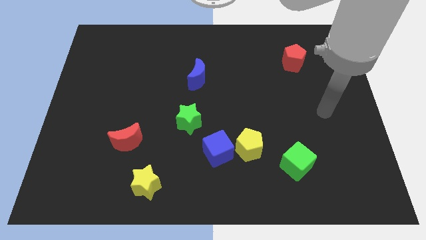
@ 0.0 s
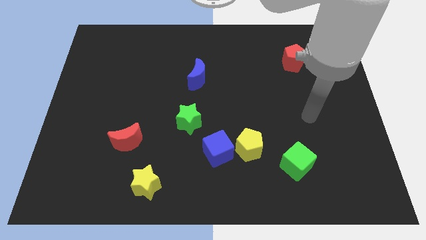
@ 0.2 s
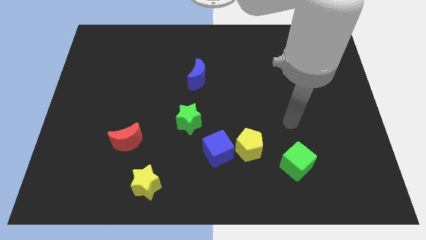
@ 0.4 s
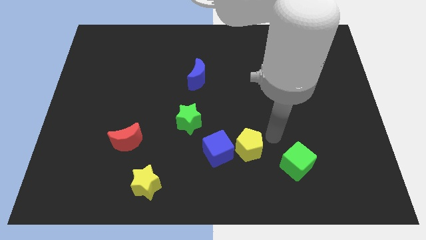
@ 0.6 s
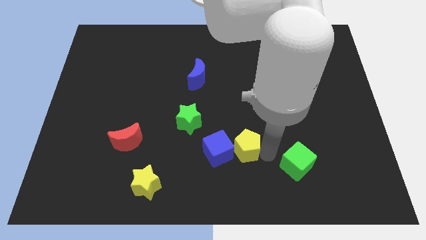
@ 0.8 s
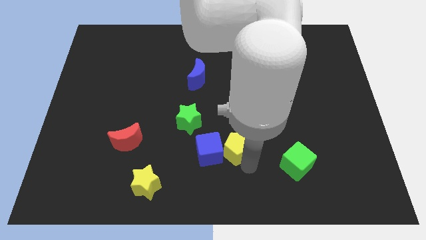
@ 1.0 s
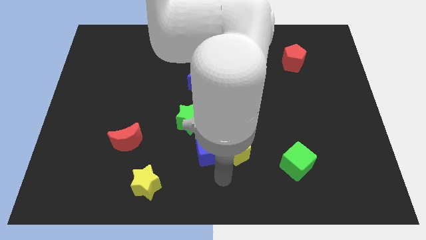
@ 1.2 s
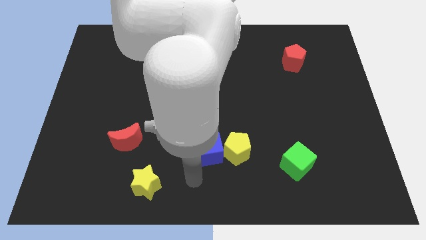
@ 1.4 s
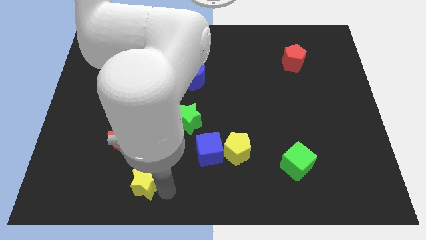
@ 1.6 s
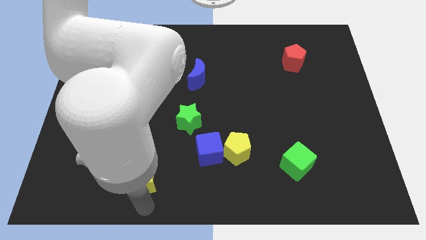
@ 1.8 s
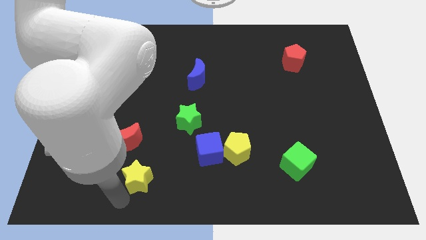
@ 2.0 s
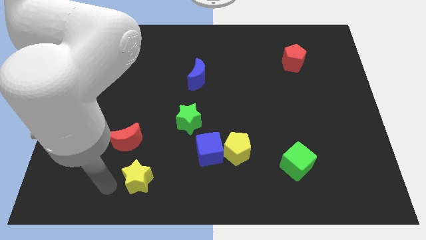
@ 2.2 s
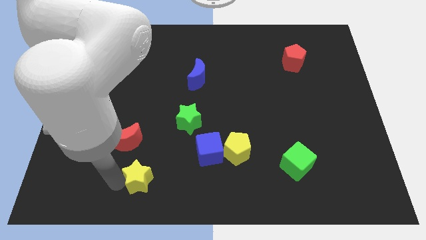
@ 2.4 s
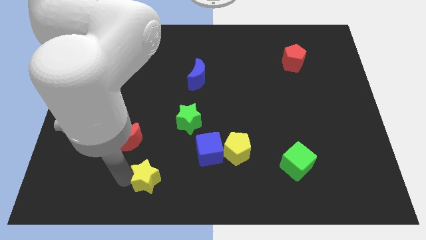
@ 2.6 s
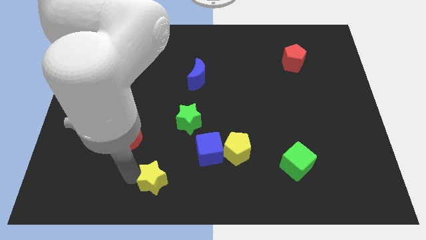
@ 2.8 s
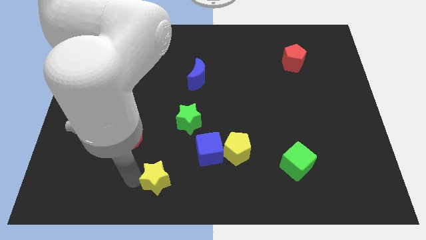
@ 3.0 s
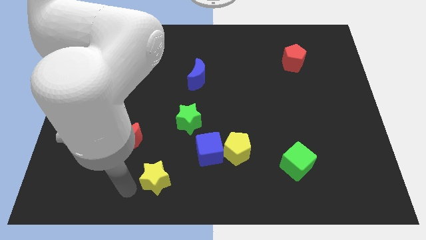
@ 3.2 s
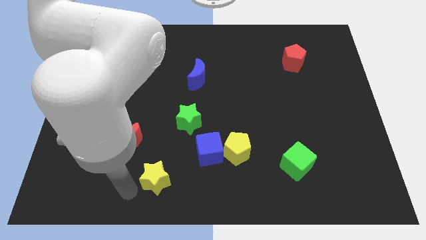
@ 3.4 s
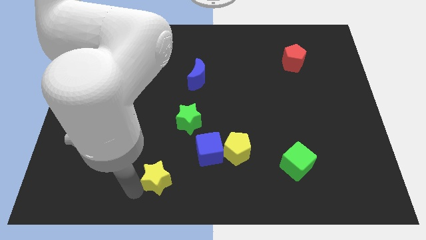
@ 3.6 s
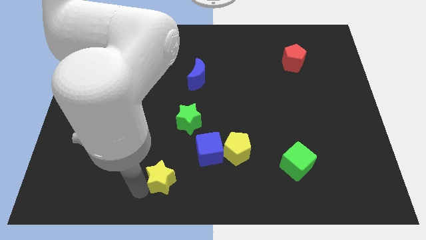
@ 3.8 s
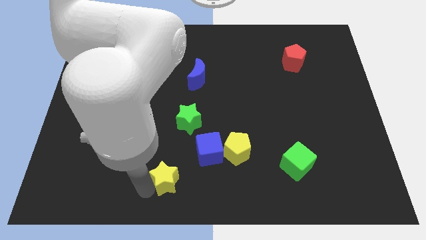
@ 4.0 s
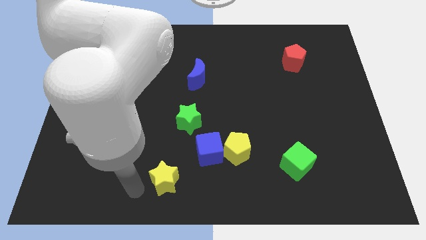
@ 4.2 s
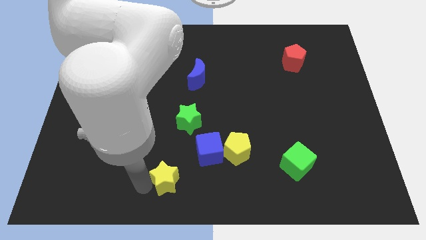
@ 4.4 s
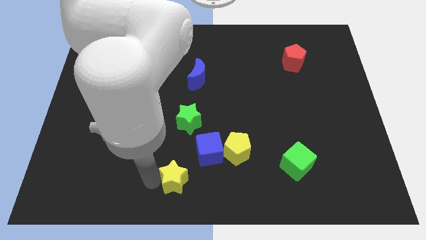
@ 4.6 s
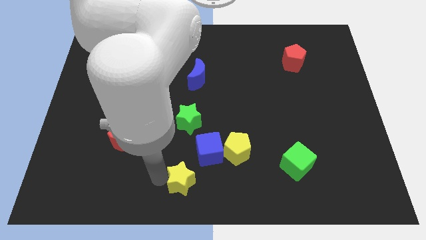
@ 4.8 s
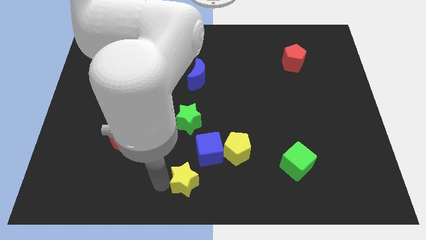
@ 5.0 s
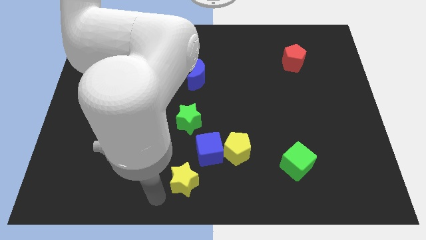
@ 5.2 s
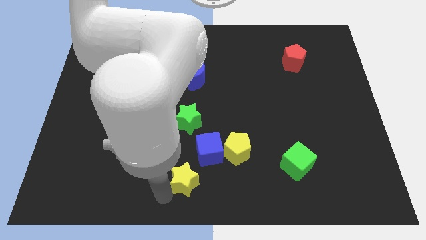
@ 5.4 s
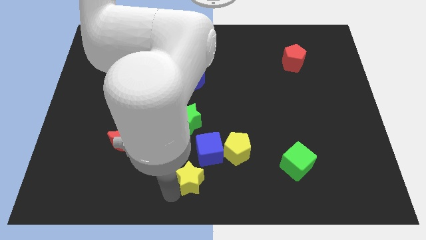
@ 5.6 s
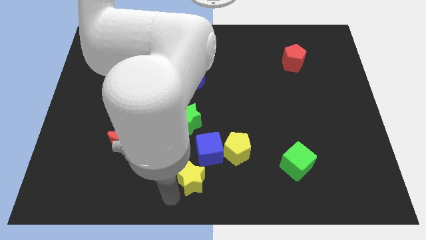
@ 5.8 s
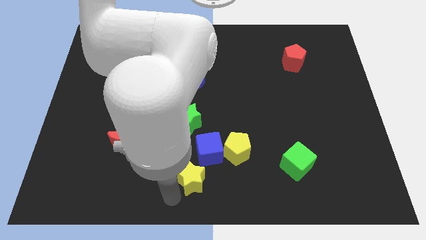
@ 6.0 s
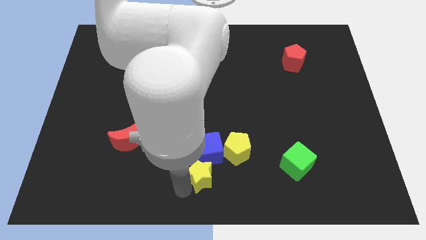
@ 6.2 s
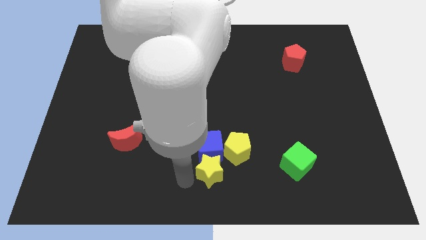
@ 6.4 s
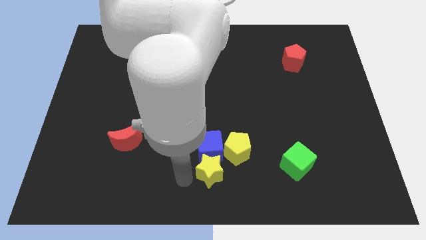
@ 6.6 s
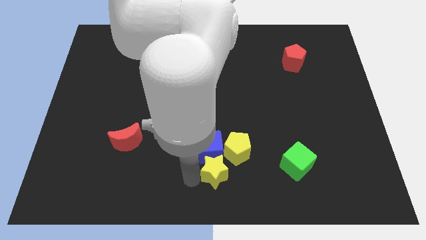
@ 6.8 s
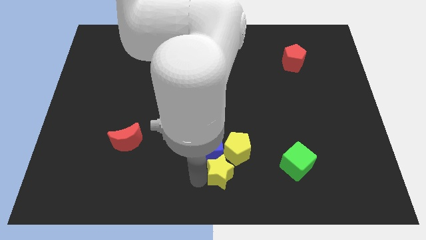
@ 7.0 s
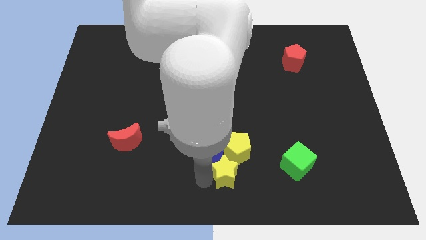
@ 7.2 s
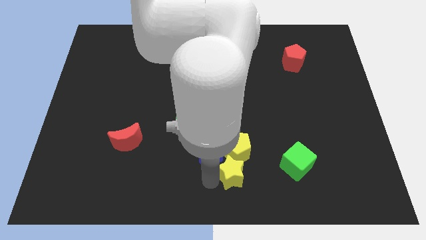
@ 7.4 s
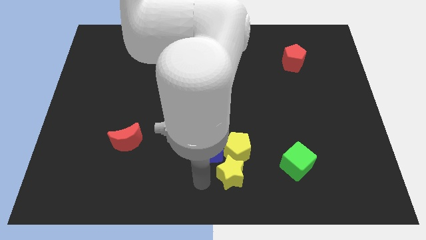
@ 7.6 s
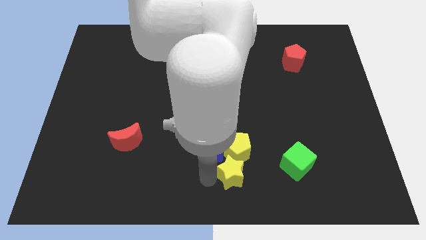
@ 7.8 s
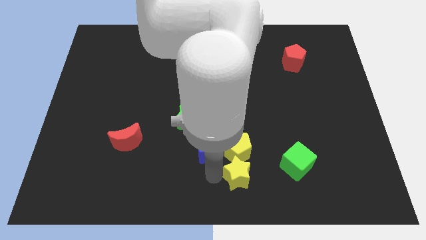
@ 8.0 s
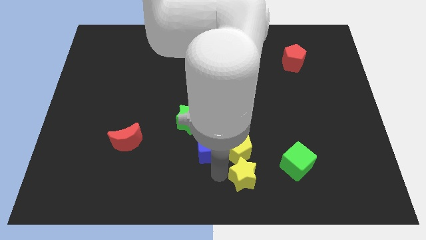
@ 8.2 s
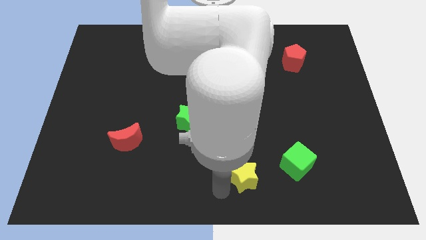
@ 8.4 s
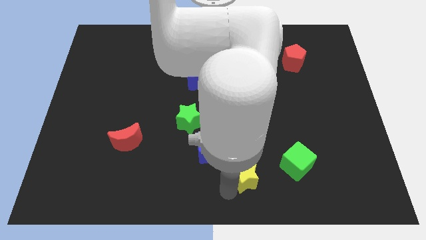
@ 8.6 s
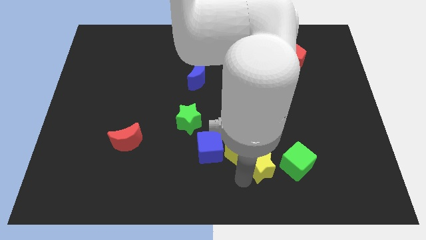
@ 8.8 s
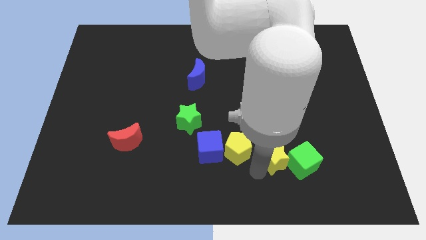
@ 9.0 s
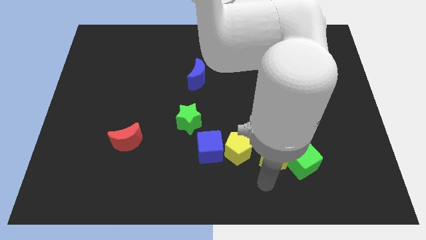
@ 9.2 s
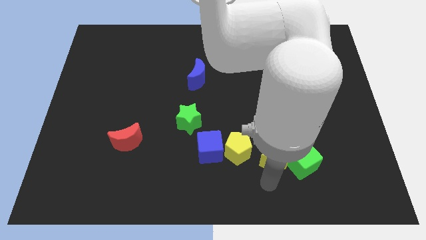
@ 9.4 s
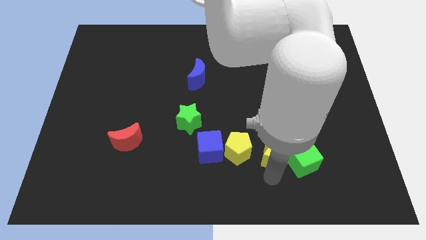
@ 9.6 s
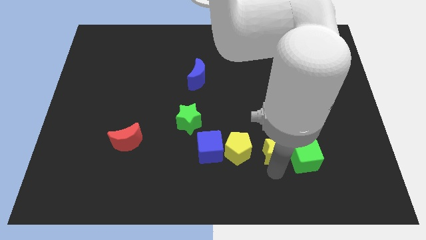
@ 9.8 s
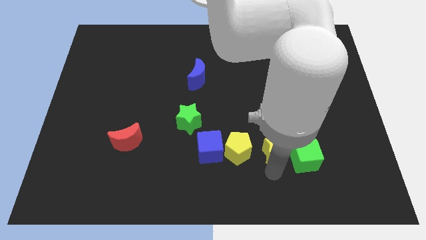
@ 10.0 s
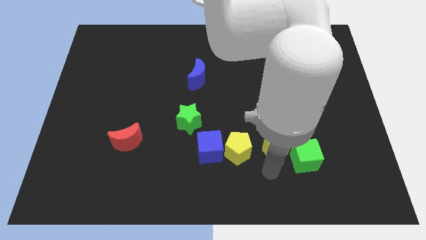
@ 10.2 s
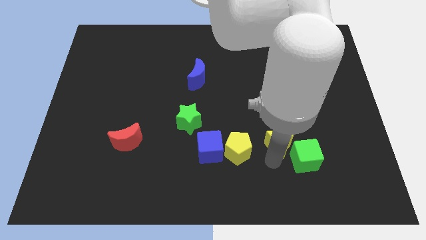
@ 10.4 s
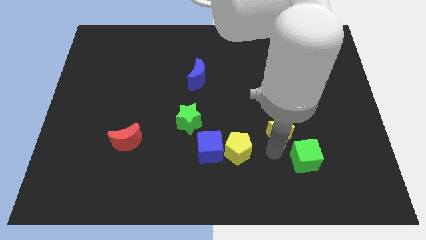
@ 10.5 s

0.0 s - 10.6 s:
push the yellow star above the green cube

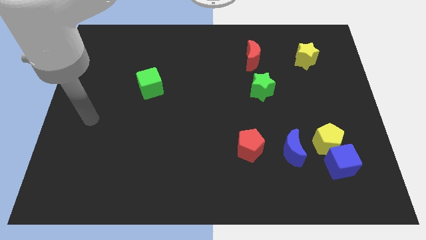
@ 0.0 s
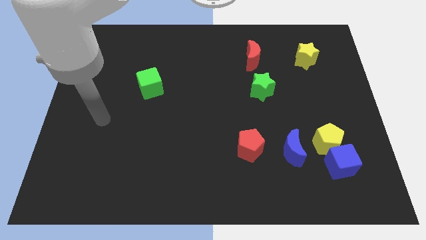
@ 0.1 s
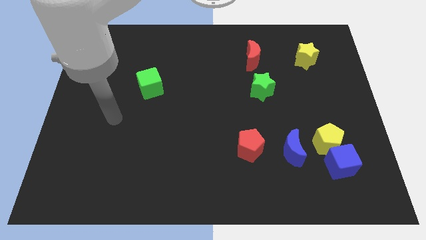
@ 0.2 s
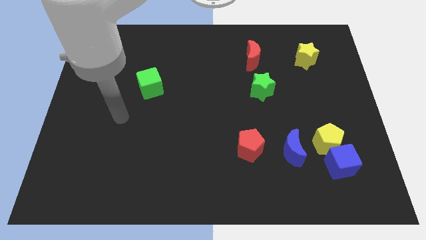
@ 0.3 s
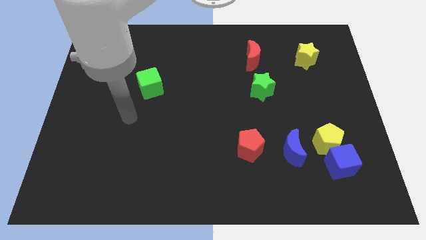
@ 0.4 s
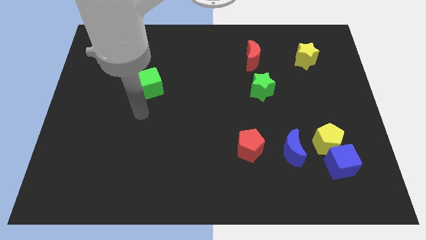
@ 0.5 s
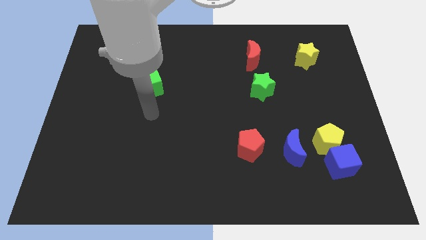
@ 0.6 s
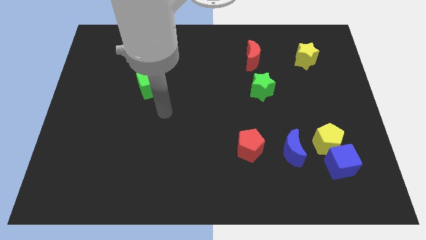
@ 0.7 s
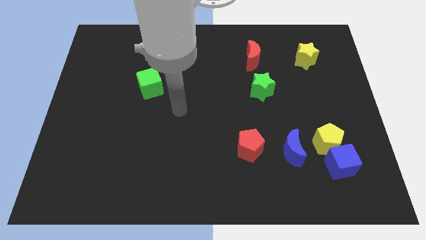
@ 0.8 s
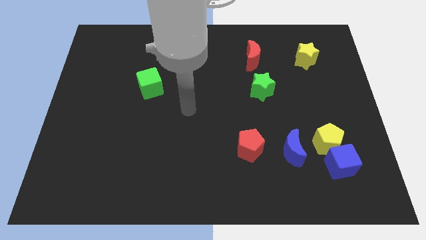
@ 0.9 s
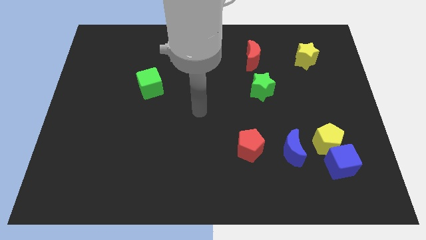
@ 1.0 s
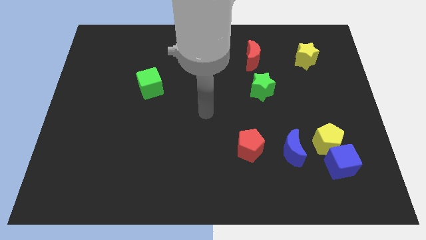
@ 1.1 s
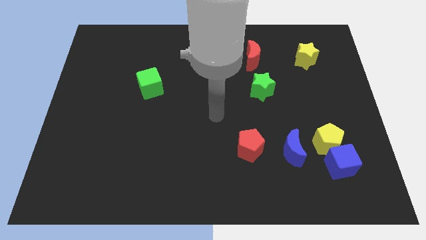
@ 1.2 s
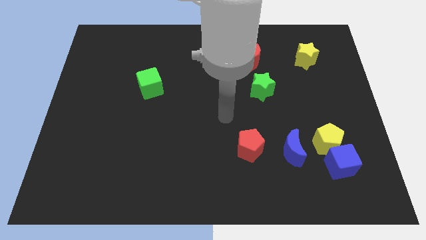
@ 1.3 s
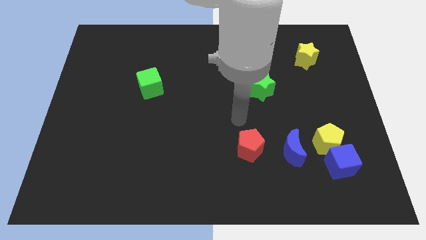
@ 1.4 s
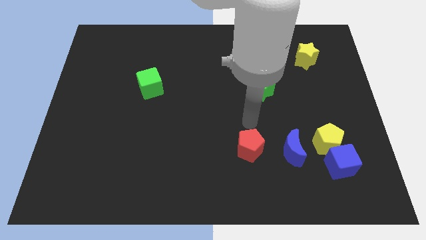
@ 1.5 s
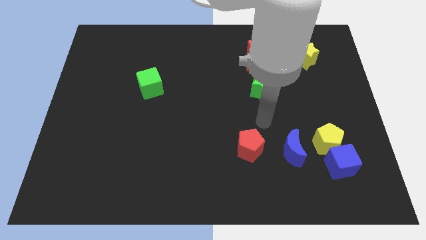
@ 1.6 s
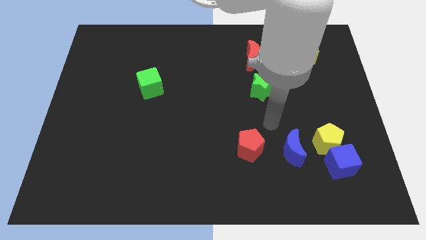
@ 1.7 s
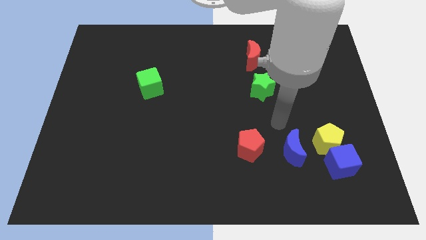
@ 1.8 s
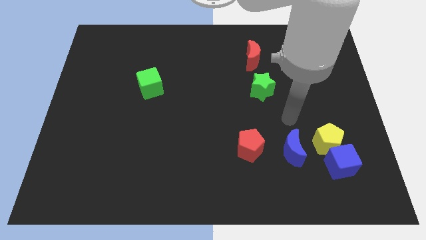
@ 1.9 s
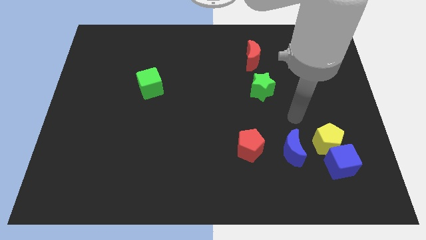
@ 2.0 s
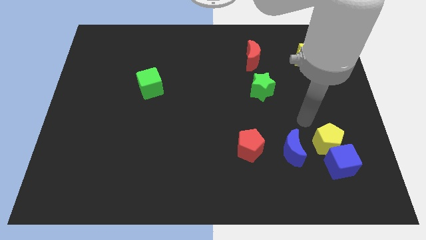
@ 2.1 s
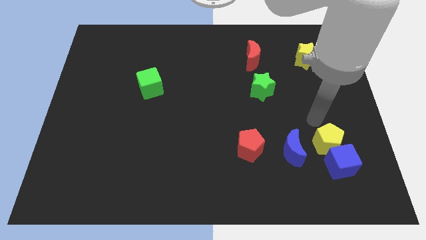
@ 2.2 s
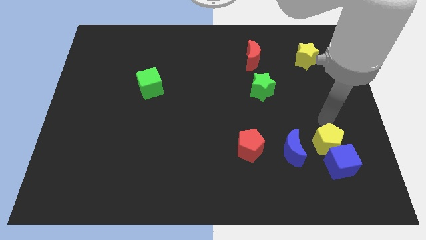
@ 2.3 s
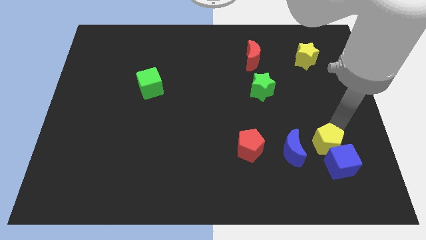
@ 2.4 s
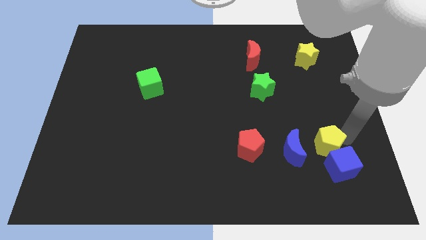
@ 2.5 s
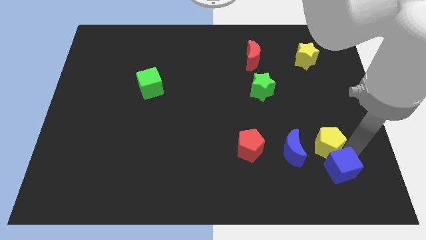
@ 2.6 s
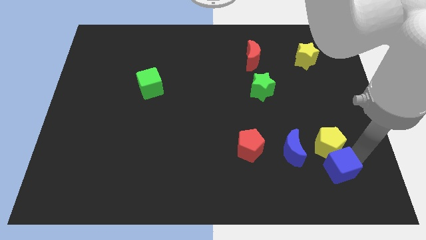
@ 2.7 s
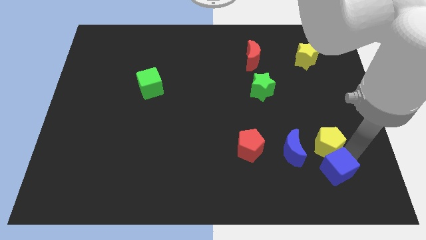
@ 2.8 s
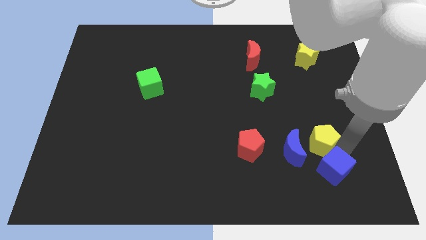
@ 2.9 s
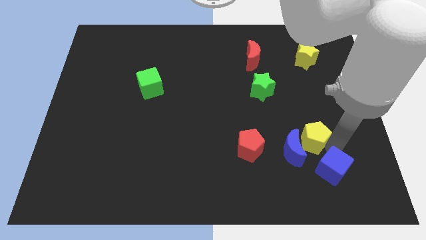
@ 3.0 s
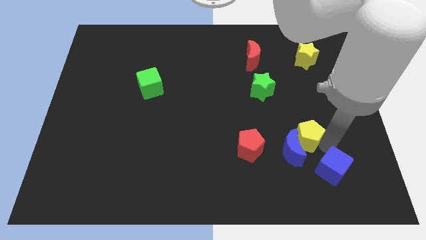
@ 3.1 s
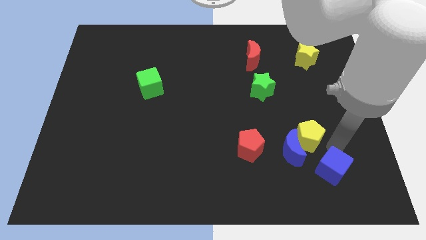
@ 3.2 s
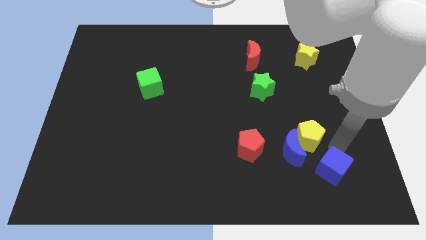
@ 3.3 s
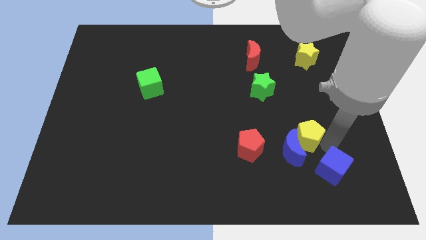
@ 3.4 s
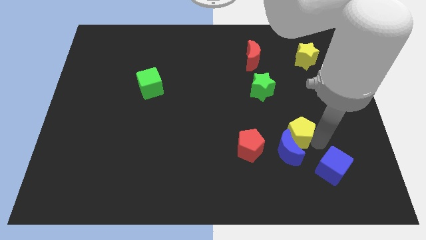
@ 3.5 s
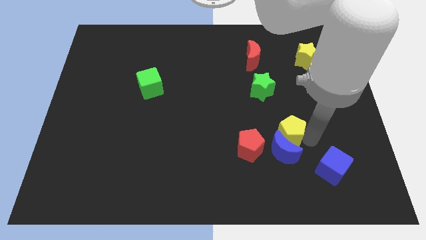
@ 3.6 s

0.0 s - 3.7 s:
push the yellow pentagon to the top right side of the red pentagon
